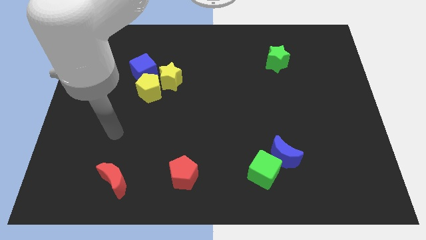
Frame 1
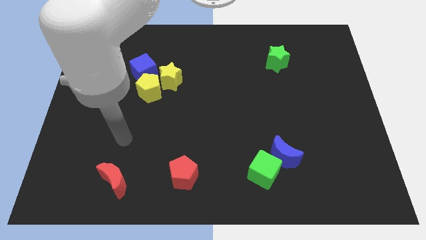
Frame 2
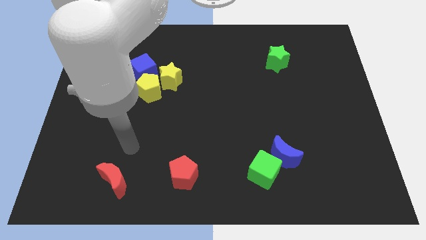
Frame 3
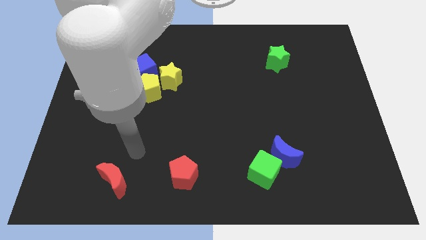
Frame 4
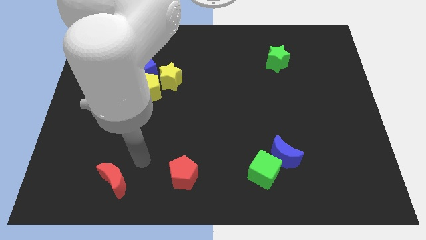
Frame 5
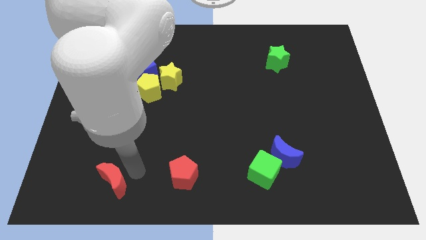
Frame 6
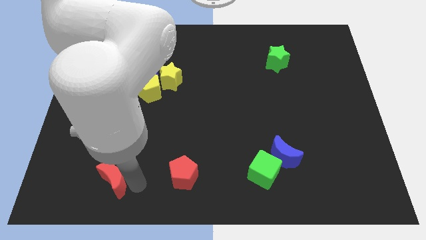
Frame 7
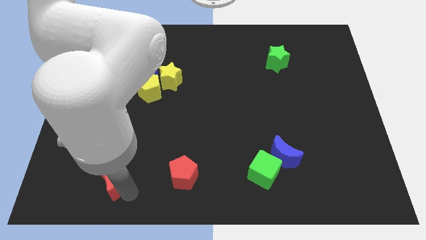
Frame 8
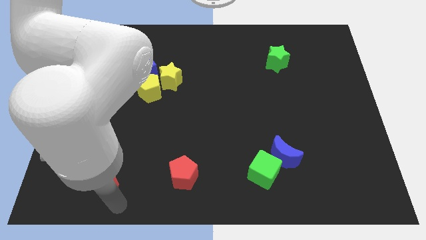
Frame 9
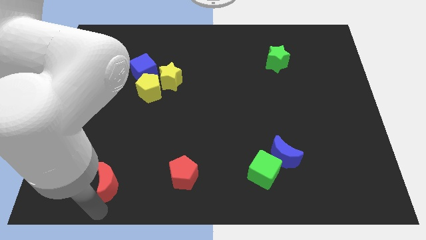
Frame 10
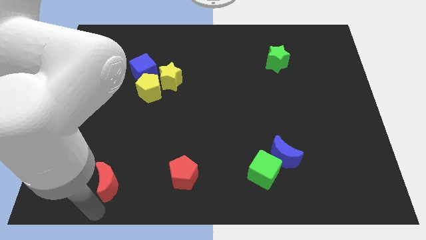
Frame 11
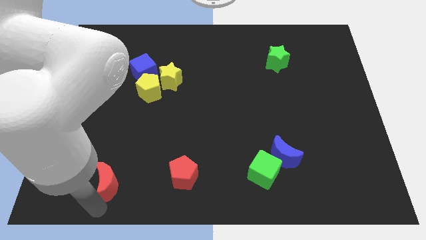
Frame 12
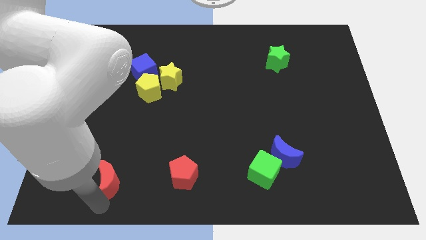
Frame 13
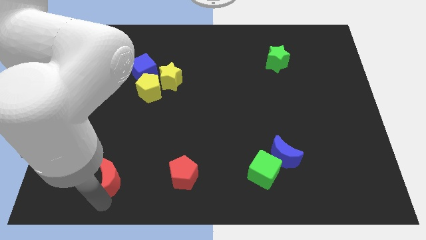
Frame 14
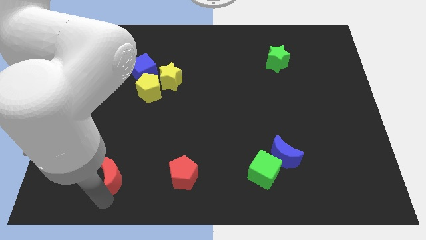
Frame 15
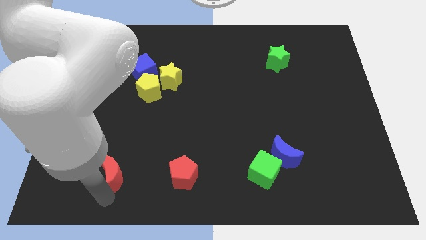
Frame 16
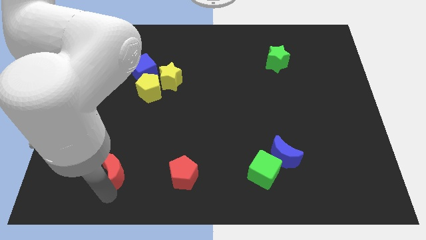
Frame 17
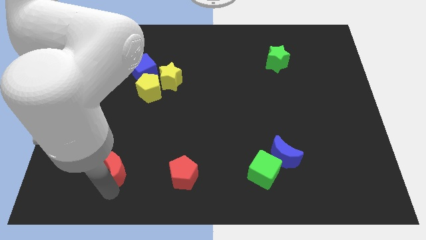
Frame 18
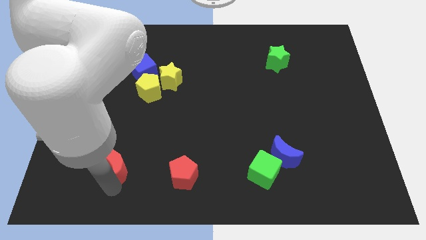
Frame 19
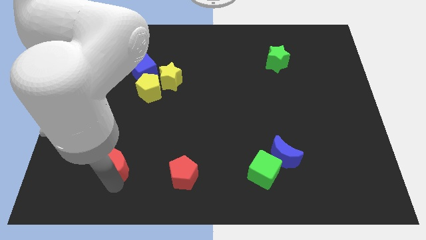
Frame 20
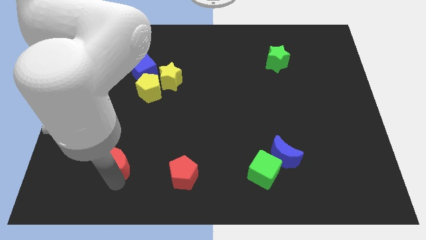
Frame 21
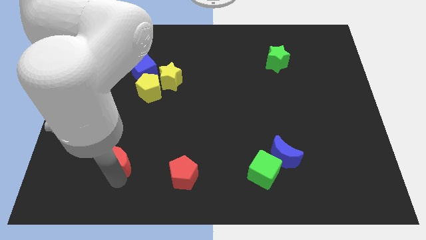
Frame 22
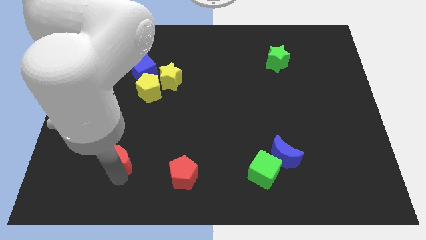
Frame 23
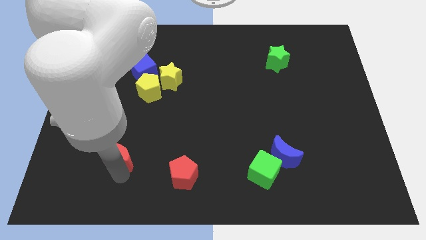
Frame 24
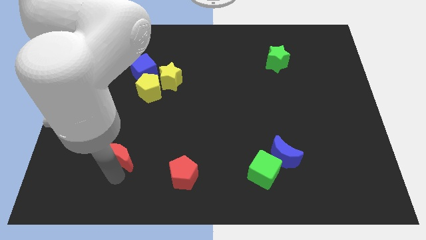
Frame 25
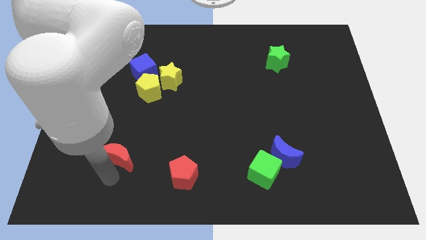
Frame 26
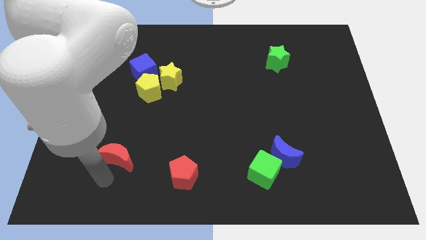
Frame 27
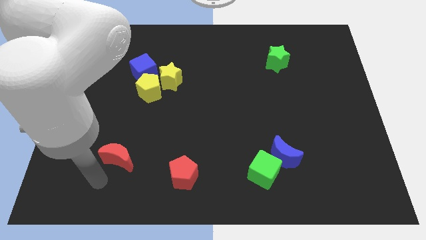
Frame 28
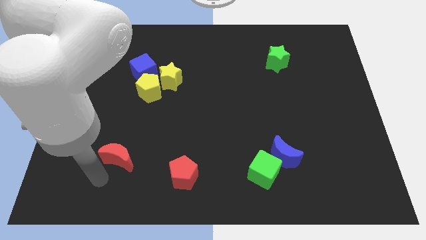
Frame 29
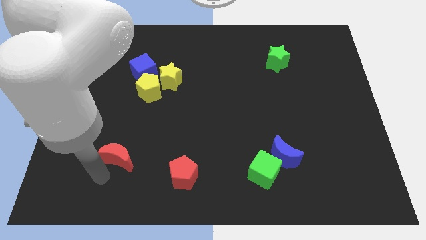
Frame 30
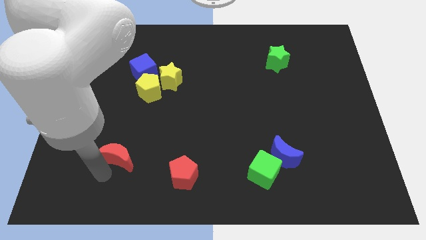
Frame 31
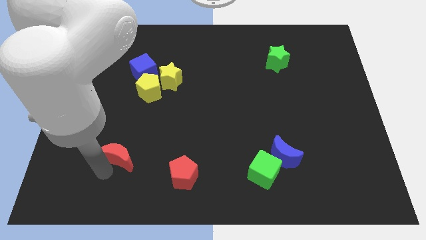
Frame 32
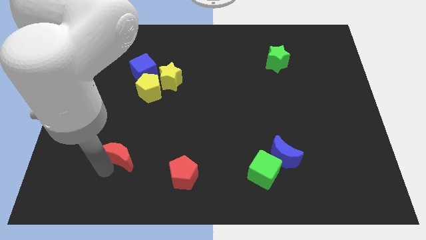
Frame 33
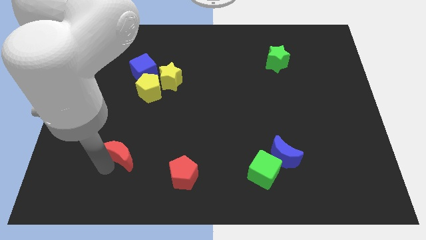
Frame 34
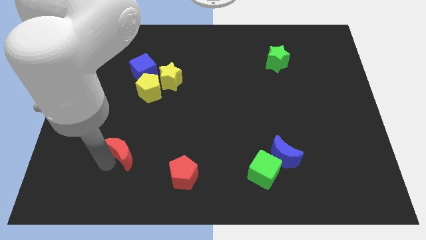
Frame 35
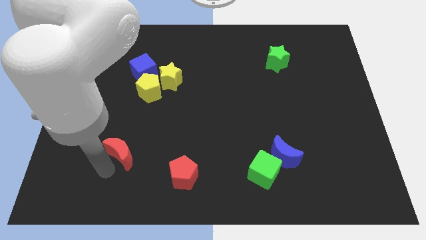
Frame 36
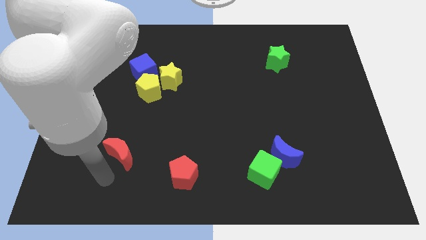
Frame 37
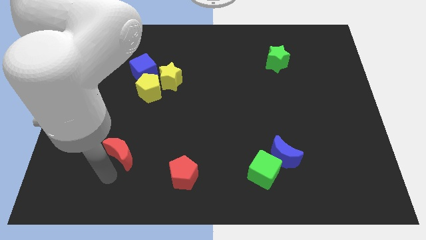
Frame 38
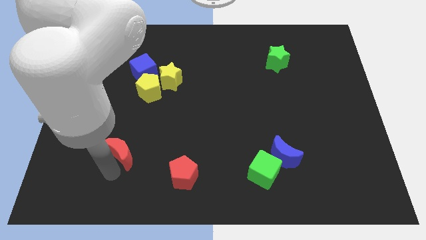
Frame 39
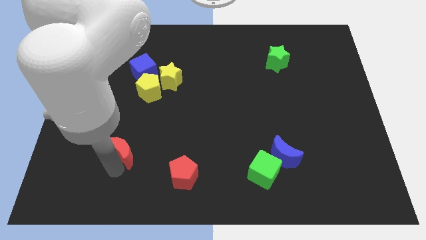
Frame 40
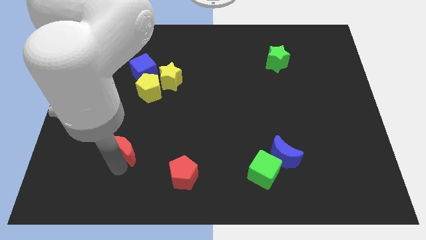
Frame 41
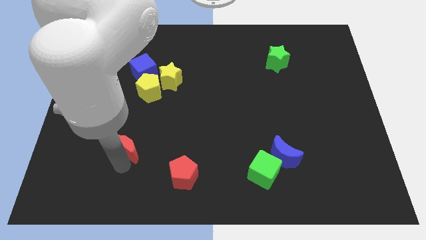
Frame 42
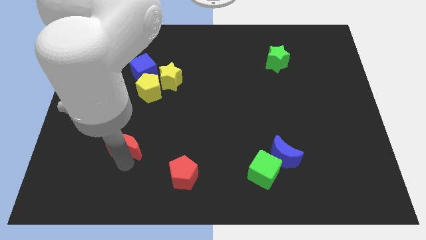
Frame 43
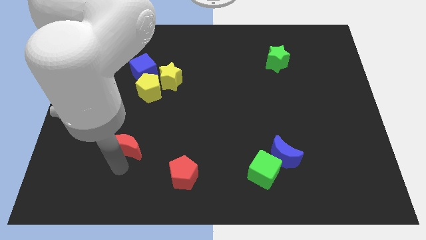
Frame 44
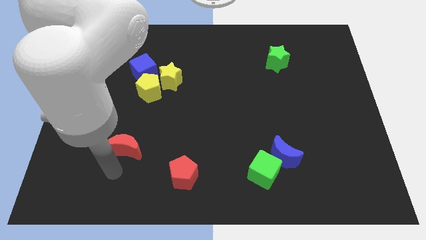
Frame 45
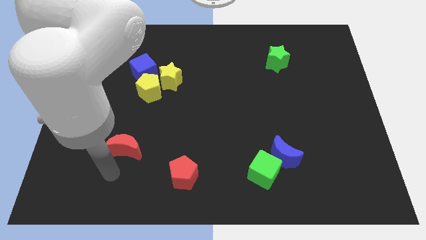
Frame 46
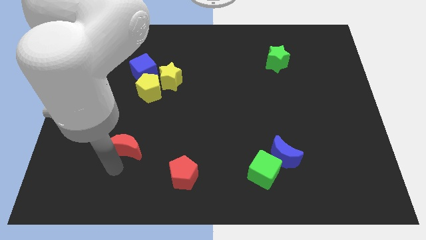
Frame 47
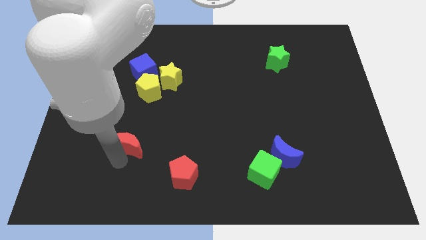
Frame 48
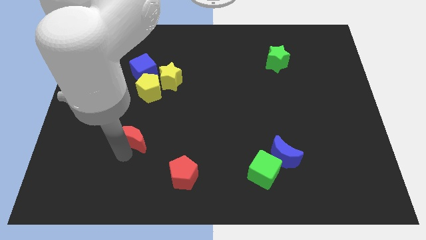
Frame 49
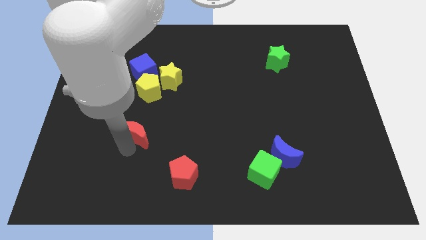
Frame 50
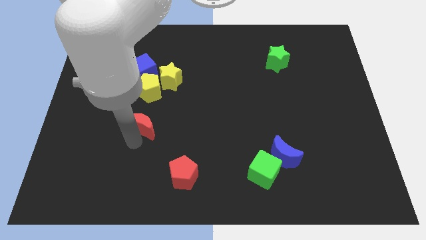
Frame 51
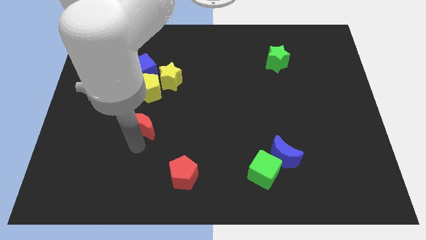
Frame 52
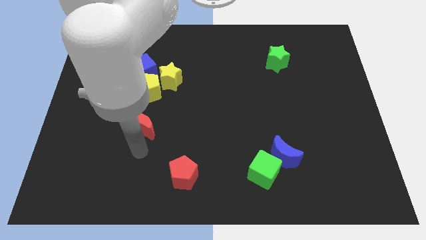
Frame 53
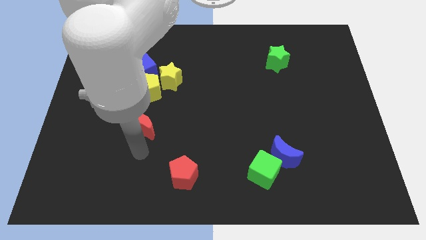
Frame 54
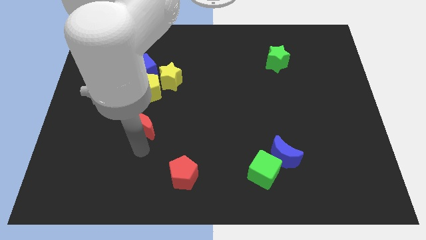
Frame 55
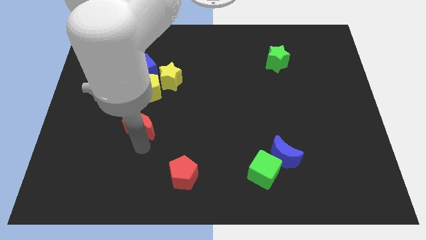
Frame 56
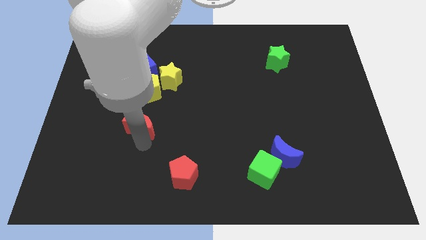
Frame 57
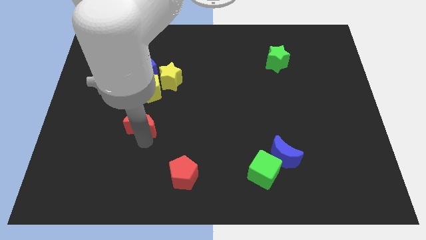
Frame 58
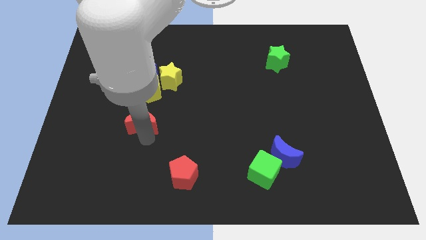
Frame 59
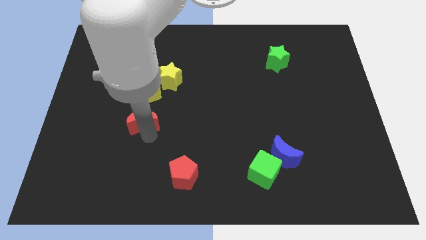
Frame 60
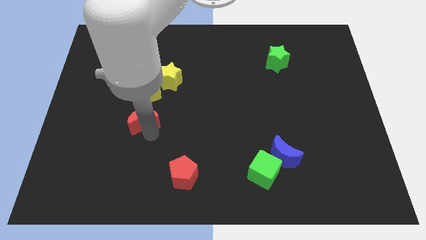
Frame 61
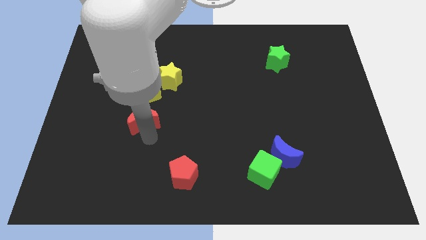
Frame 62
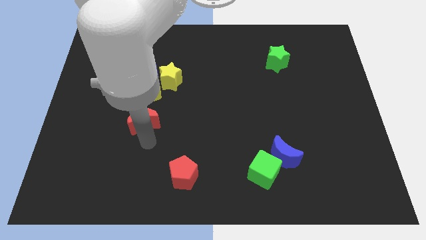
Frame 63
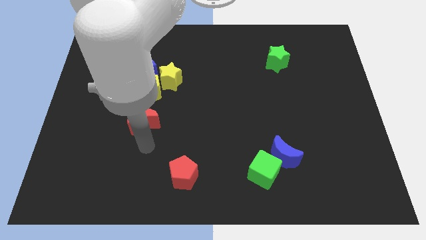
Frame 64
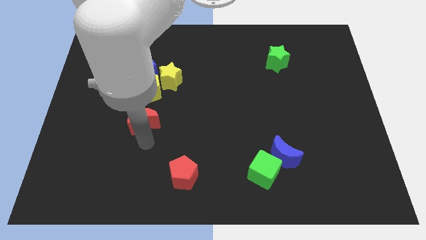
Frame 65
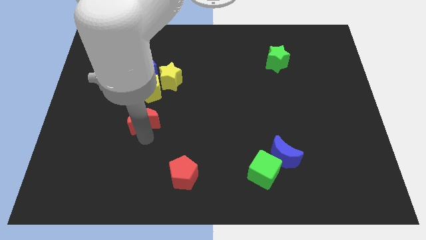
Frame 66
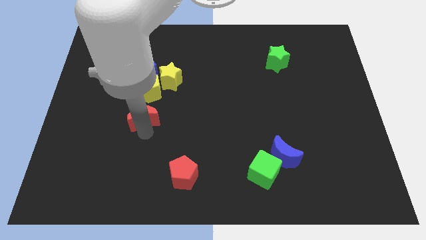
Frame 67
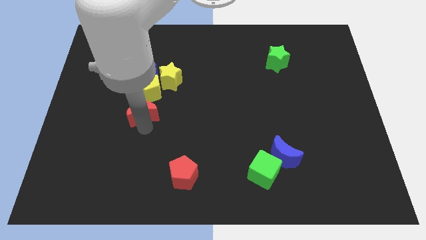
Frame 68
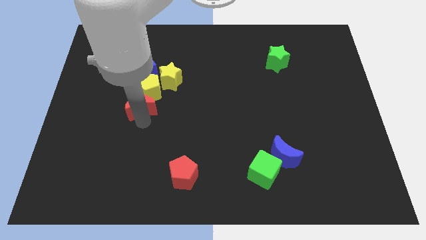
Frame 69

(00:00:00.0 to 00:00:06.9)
push the red moon to the yellow pentagon
